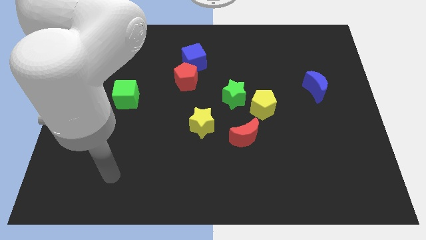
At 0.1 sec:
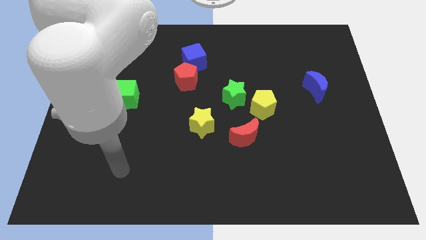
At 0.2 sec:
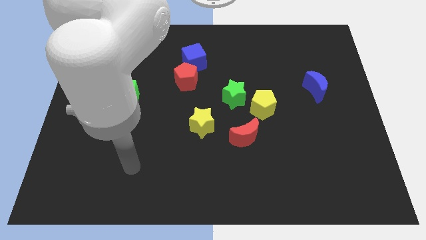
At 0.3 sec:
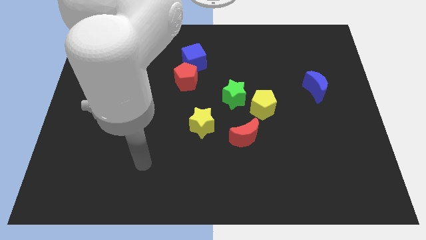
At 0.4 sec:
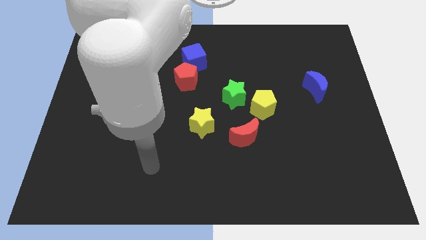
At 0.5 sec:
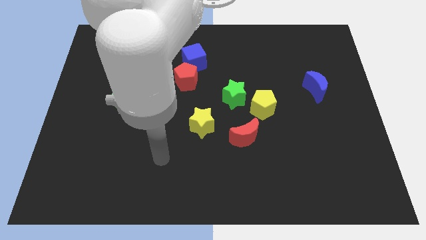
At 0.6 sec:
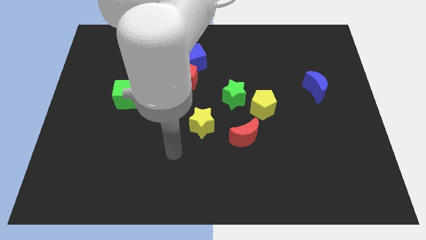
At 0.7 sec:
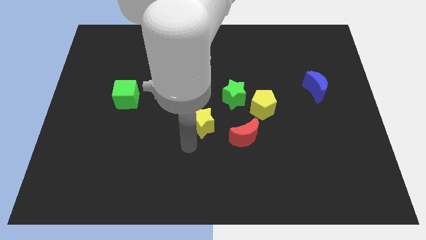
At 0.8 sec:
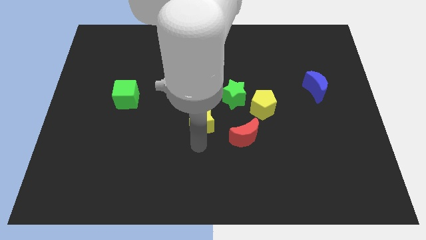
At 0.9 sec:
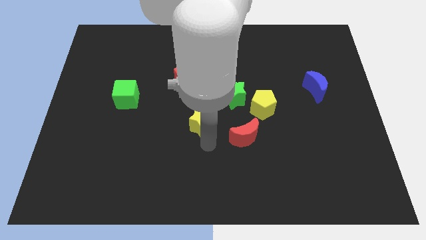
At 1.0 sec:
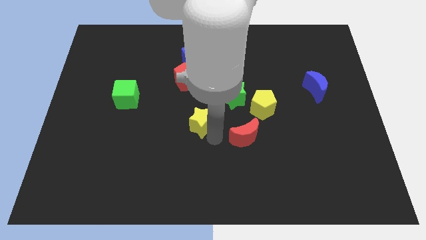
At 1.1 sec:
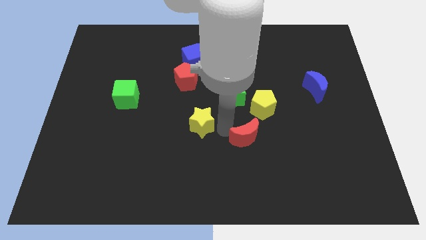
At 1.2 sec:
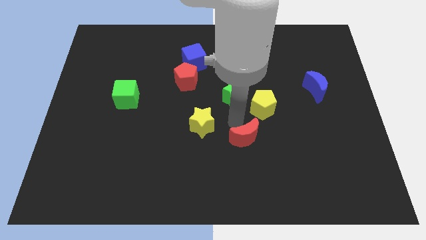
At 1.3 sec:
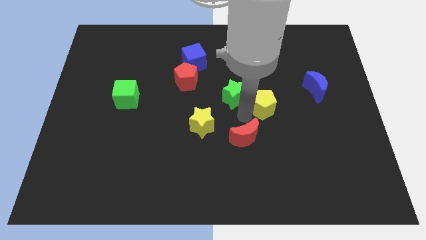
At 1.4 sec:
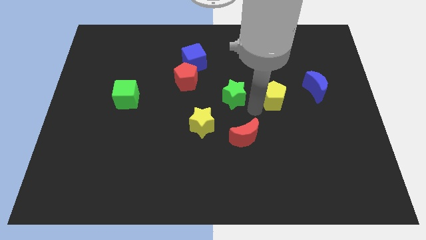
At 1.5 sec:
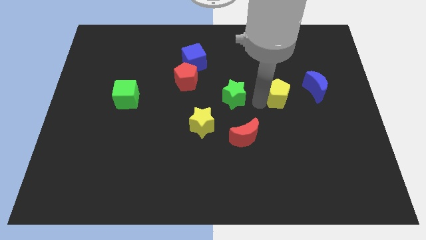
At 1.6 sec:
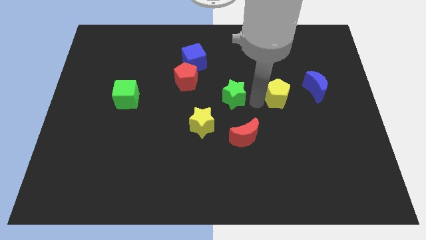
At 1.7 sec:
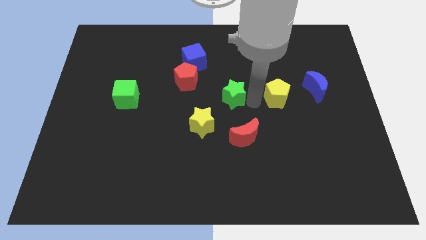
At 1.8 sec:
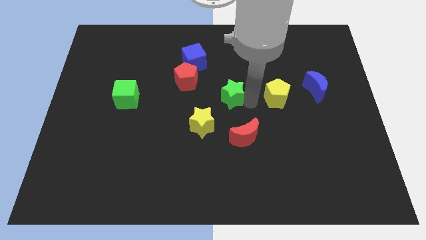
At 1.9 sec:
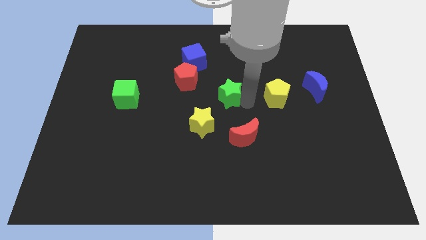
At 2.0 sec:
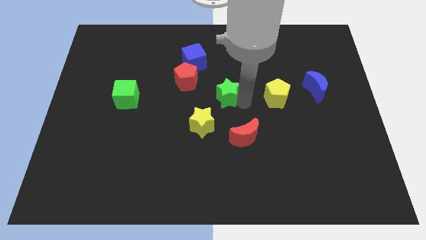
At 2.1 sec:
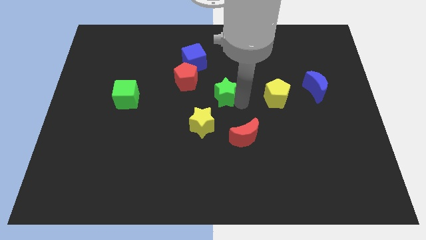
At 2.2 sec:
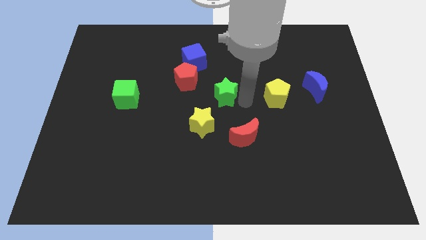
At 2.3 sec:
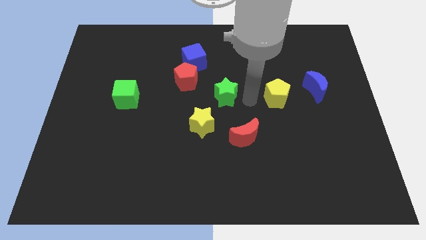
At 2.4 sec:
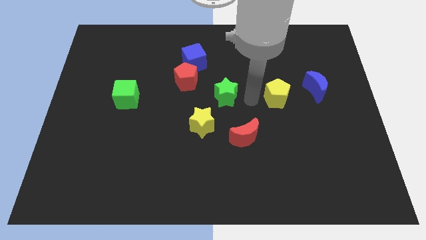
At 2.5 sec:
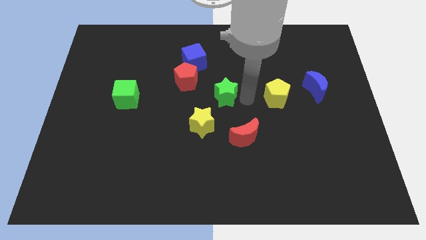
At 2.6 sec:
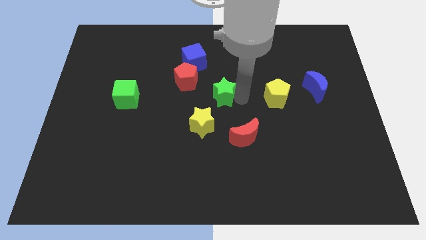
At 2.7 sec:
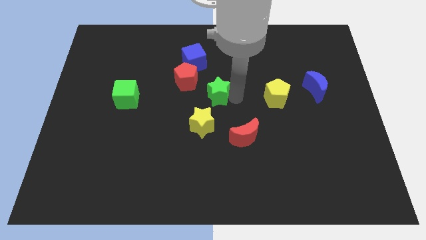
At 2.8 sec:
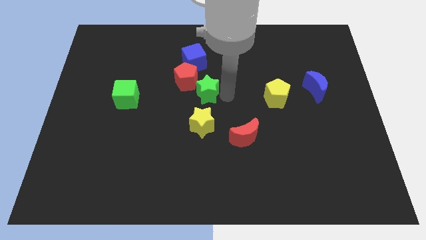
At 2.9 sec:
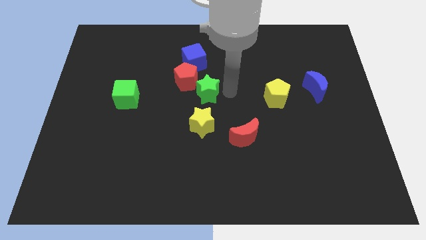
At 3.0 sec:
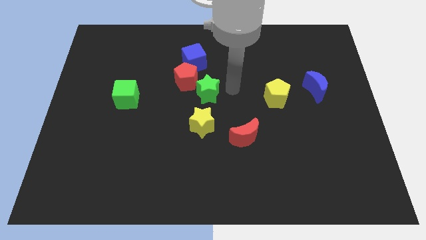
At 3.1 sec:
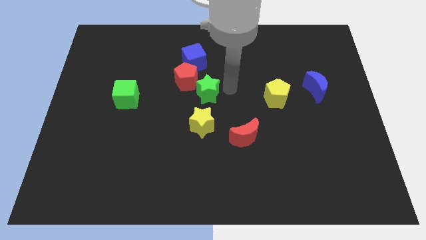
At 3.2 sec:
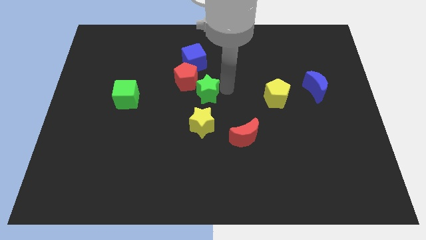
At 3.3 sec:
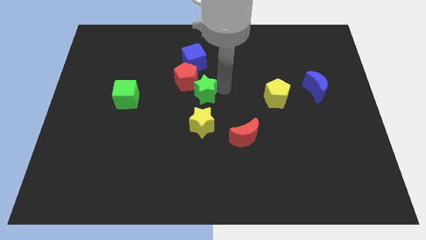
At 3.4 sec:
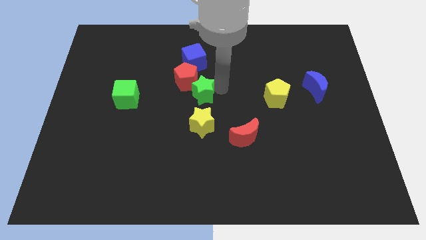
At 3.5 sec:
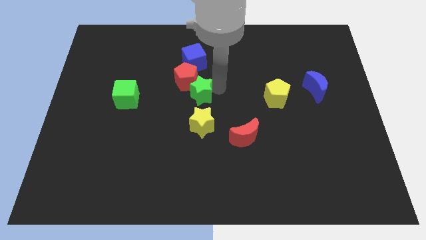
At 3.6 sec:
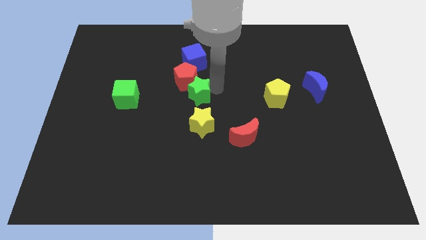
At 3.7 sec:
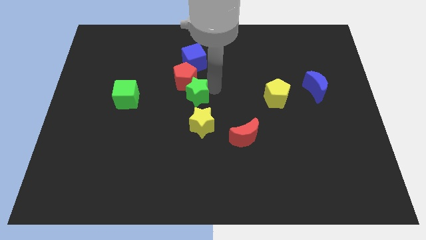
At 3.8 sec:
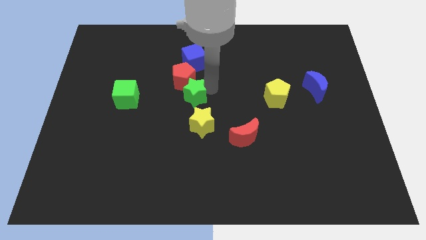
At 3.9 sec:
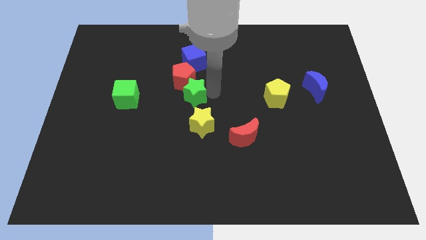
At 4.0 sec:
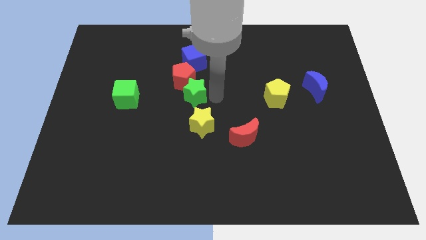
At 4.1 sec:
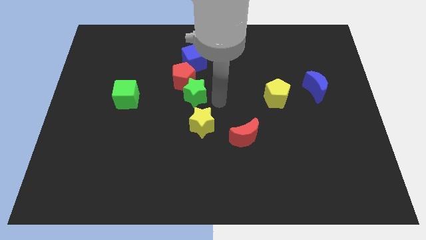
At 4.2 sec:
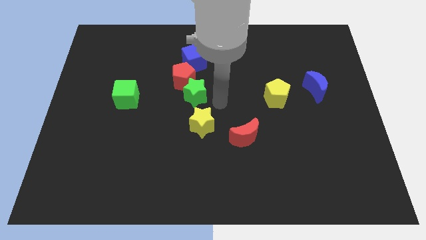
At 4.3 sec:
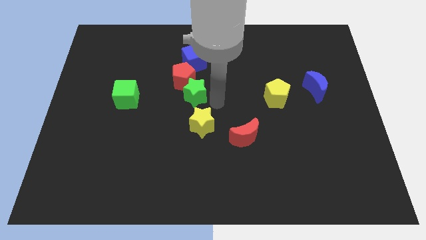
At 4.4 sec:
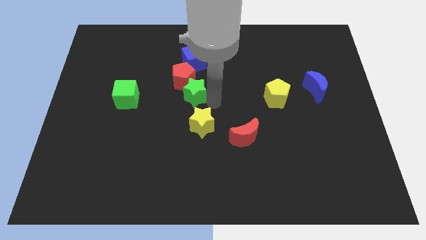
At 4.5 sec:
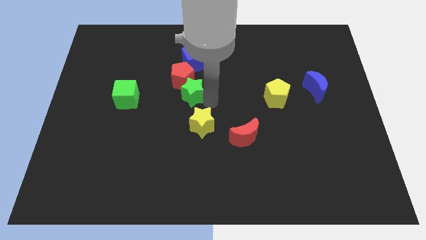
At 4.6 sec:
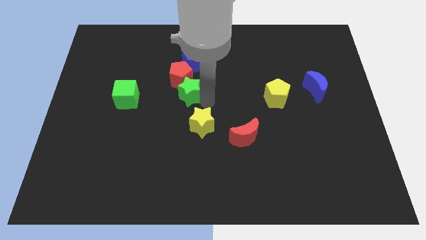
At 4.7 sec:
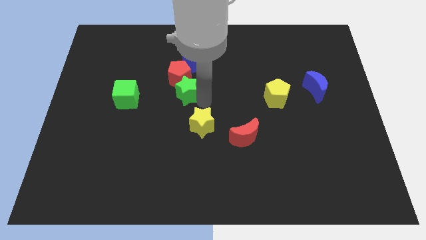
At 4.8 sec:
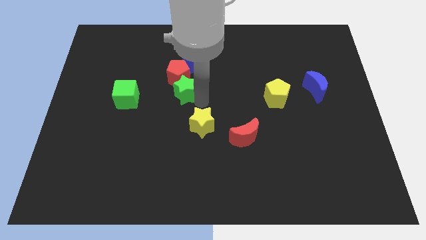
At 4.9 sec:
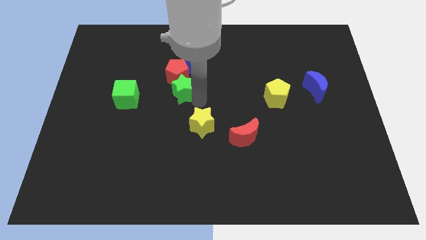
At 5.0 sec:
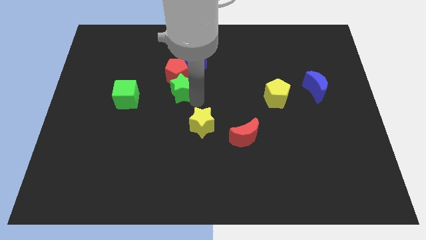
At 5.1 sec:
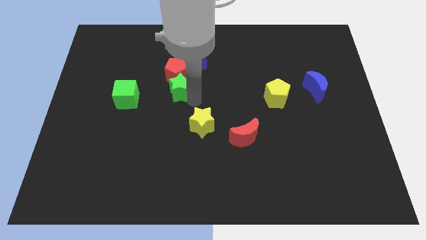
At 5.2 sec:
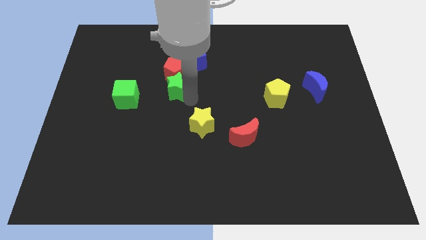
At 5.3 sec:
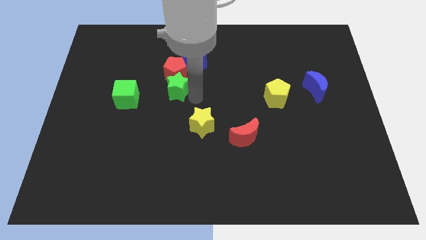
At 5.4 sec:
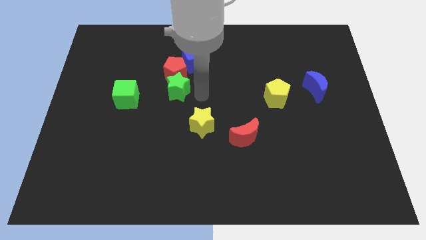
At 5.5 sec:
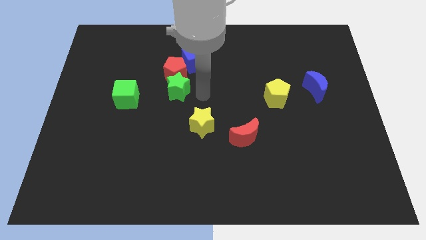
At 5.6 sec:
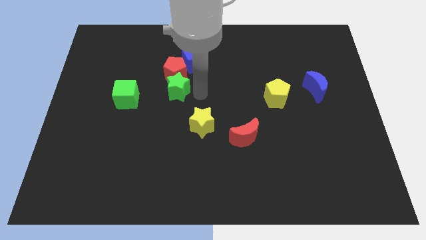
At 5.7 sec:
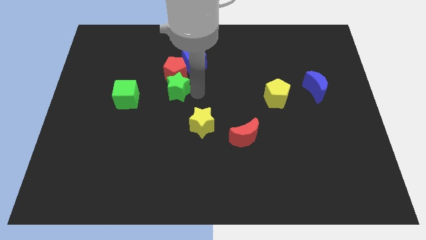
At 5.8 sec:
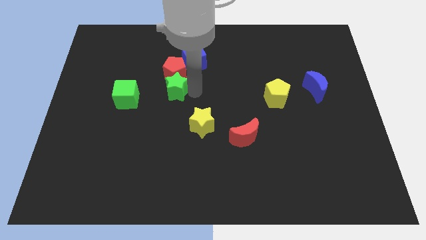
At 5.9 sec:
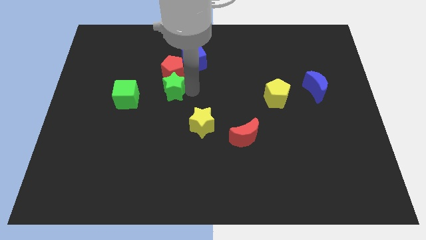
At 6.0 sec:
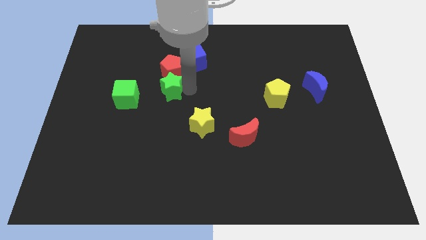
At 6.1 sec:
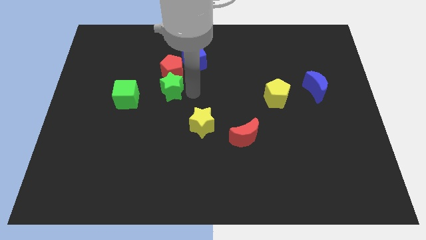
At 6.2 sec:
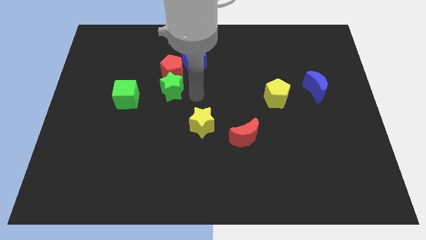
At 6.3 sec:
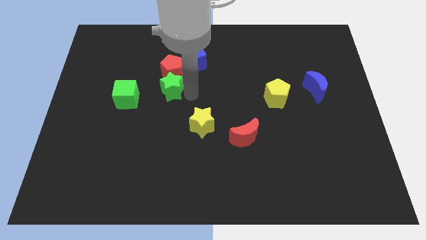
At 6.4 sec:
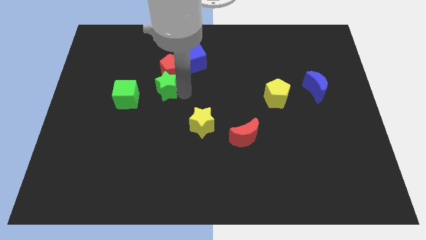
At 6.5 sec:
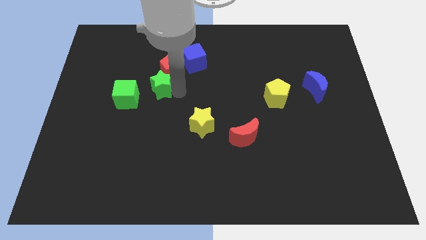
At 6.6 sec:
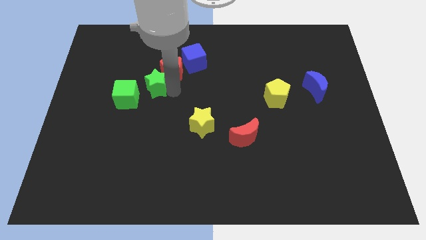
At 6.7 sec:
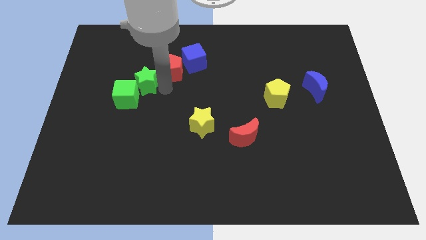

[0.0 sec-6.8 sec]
slide the green star to the left

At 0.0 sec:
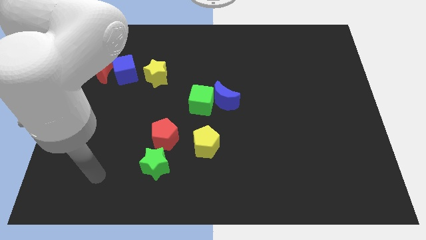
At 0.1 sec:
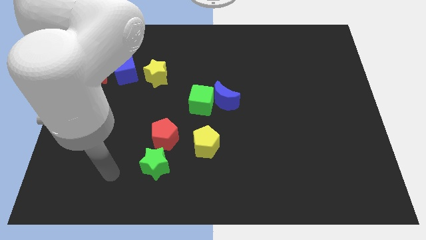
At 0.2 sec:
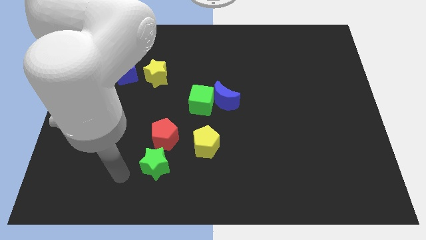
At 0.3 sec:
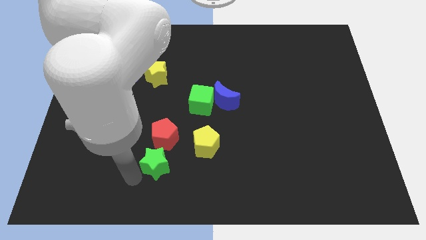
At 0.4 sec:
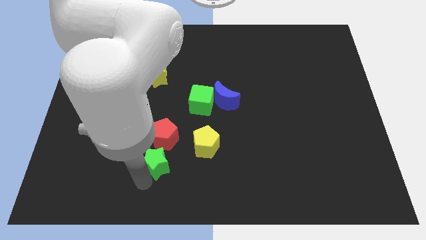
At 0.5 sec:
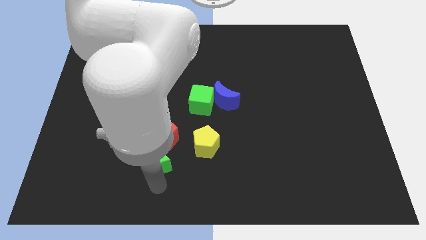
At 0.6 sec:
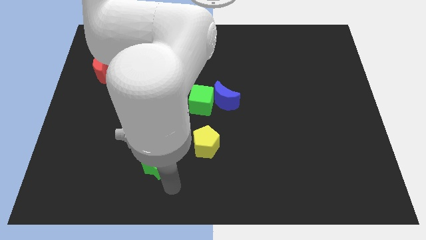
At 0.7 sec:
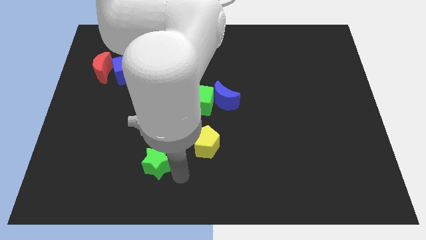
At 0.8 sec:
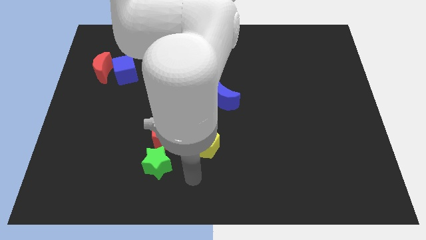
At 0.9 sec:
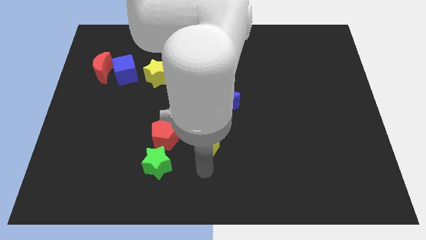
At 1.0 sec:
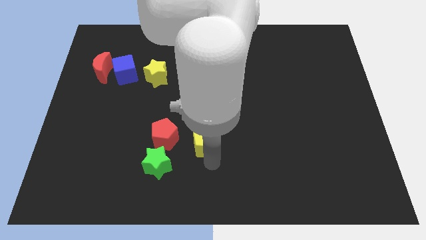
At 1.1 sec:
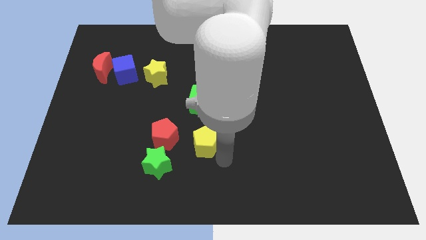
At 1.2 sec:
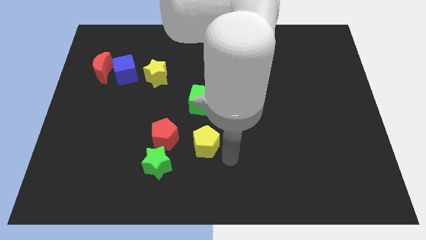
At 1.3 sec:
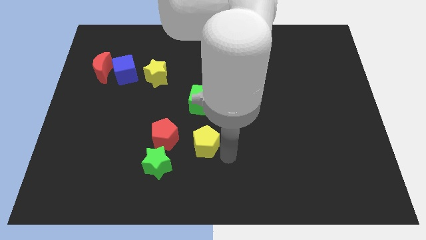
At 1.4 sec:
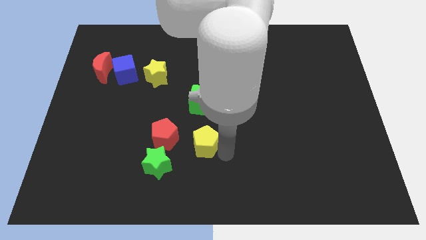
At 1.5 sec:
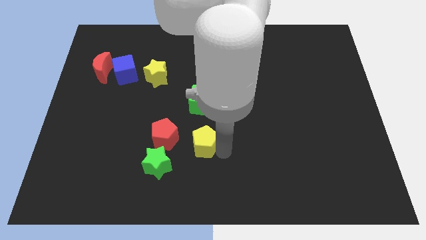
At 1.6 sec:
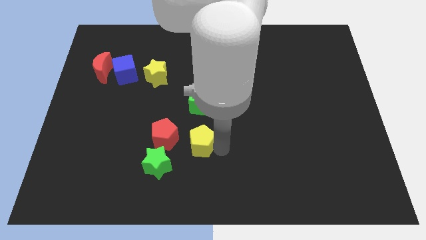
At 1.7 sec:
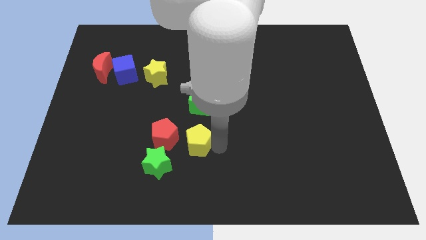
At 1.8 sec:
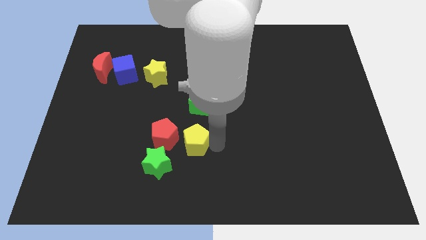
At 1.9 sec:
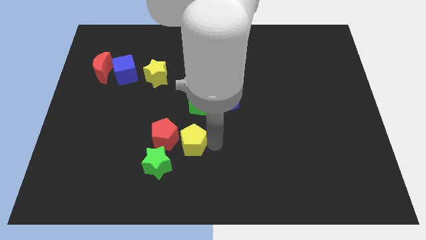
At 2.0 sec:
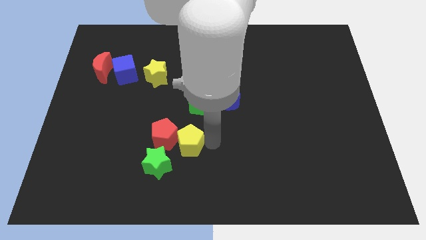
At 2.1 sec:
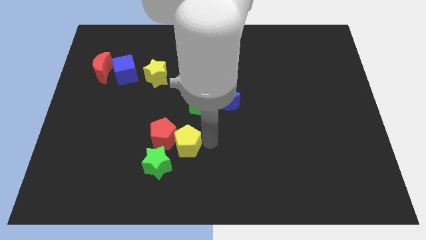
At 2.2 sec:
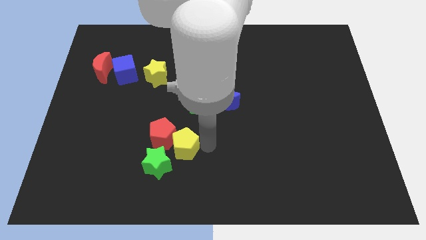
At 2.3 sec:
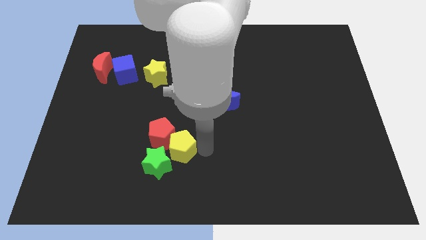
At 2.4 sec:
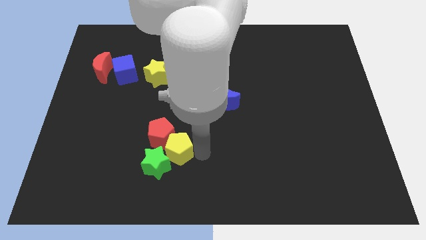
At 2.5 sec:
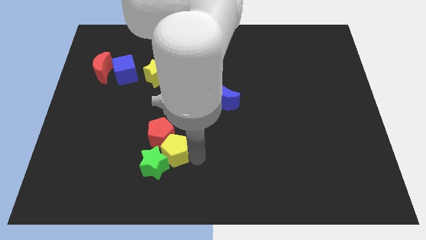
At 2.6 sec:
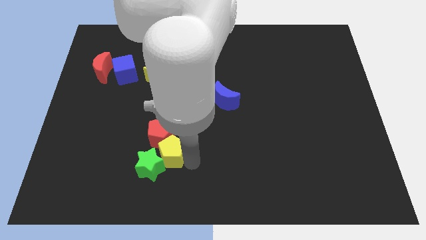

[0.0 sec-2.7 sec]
move the yellow pentagon to the left a bit
